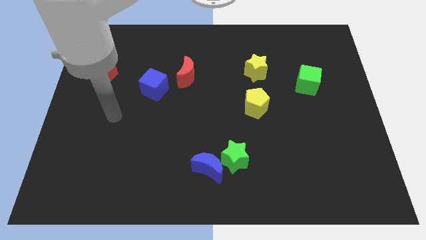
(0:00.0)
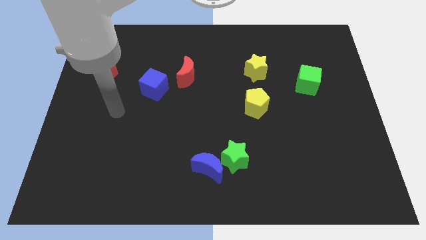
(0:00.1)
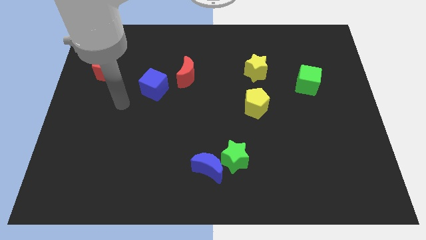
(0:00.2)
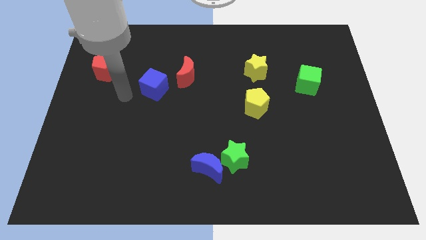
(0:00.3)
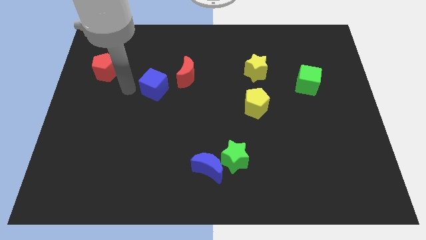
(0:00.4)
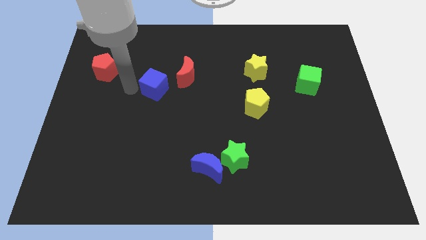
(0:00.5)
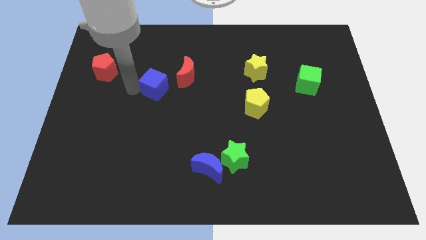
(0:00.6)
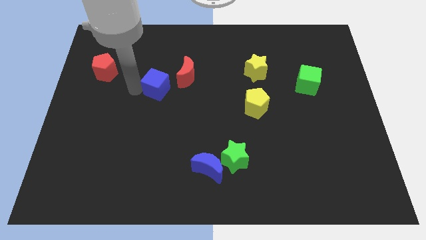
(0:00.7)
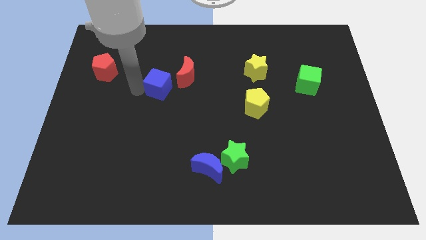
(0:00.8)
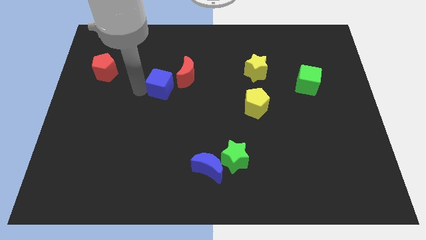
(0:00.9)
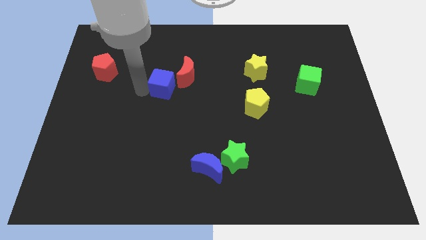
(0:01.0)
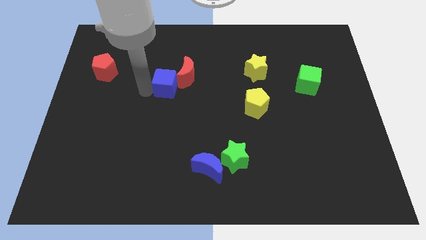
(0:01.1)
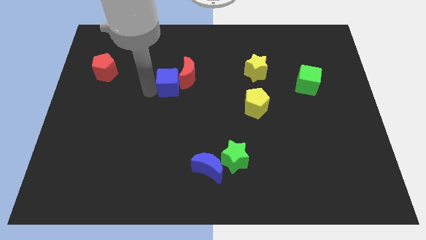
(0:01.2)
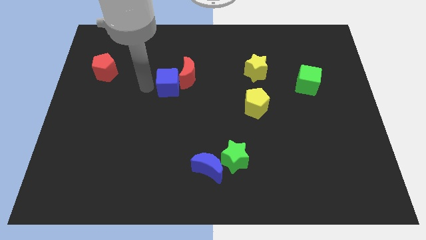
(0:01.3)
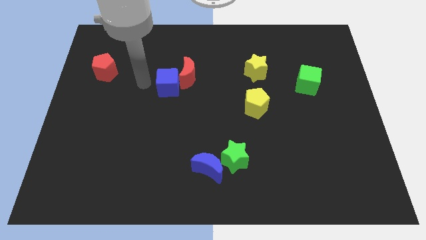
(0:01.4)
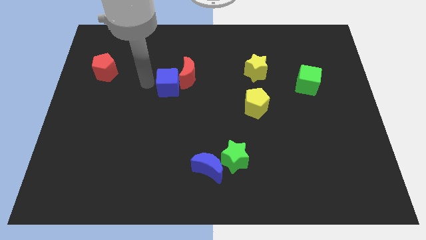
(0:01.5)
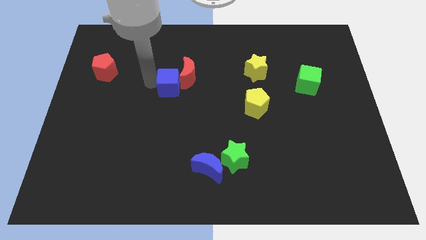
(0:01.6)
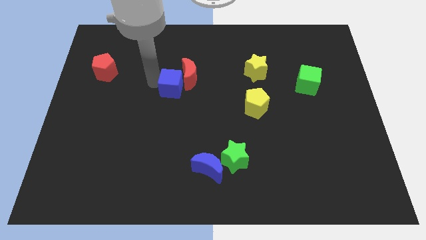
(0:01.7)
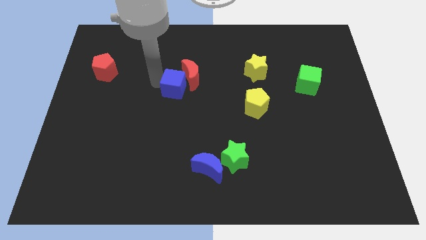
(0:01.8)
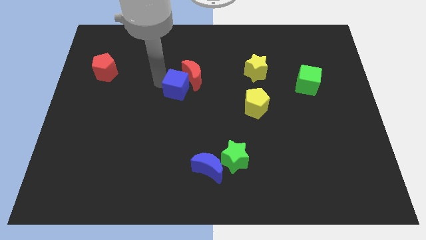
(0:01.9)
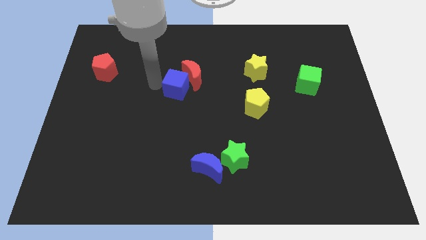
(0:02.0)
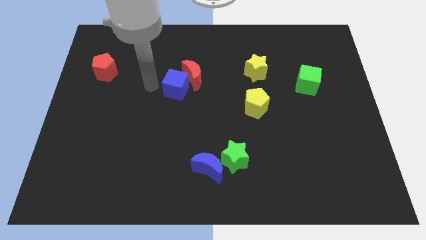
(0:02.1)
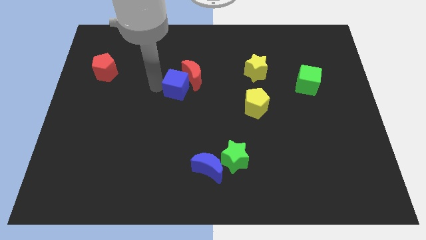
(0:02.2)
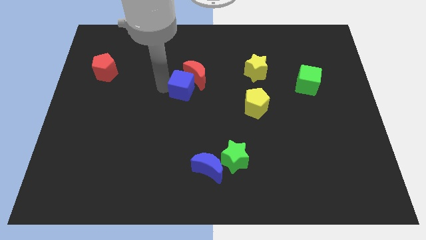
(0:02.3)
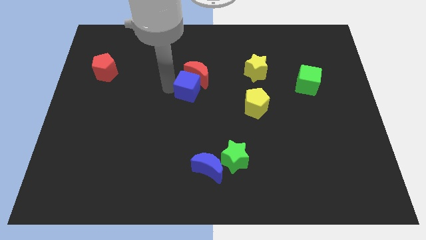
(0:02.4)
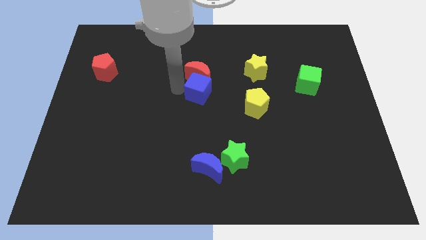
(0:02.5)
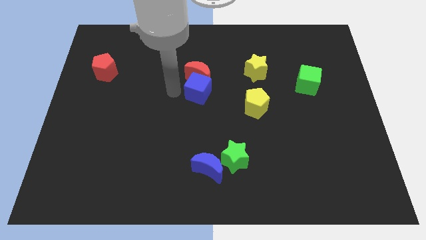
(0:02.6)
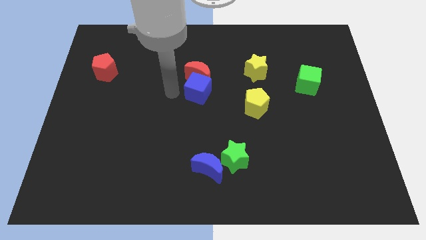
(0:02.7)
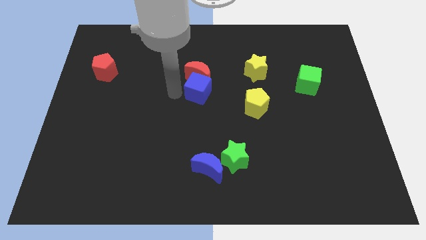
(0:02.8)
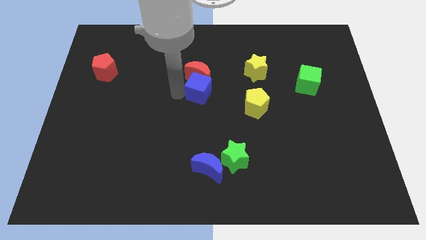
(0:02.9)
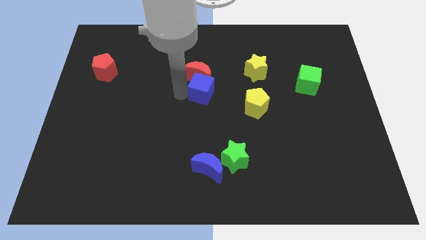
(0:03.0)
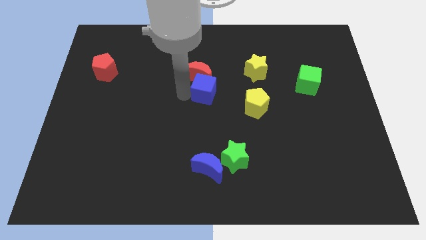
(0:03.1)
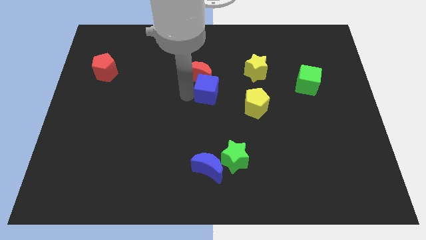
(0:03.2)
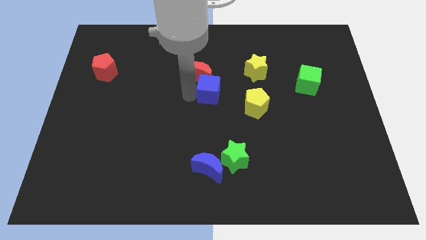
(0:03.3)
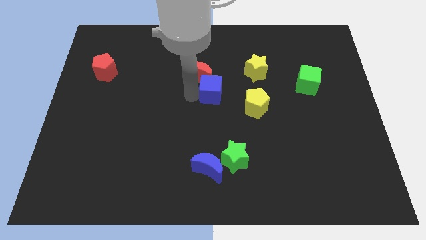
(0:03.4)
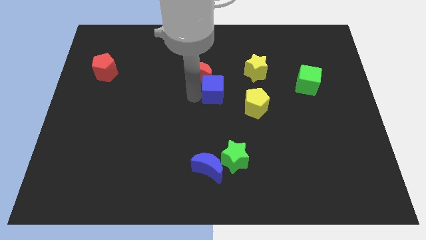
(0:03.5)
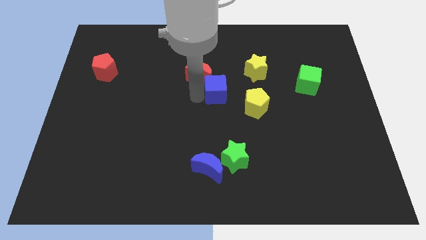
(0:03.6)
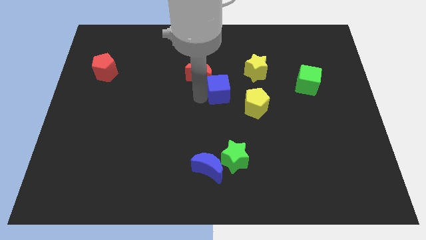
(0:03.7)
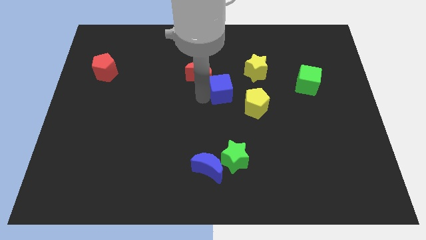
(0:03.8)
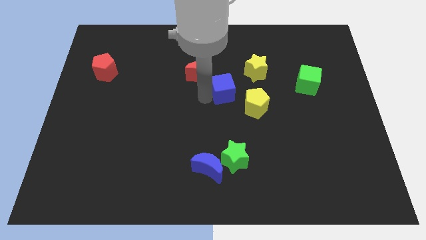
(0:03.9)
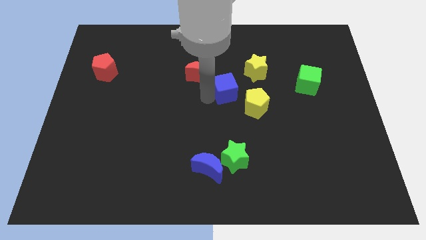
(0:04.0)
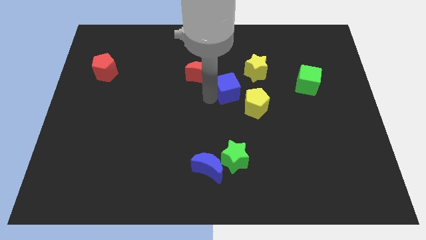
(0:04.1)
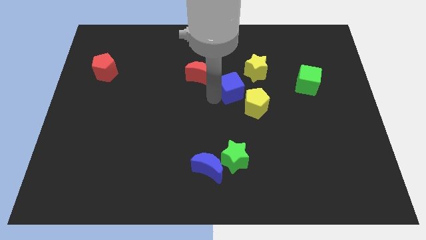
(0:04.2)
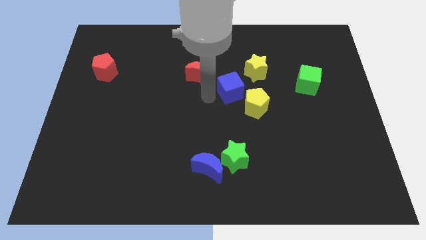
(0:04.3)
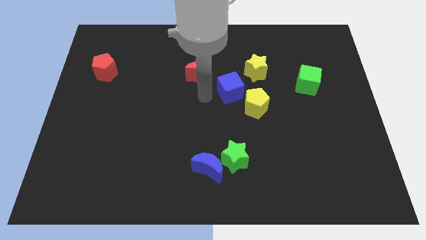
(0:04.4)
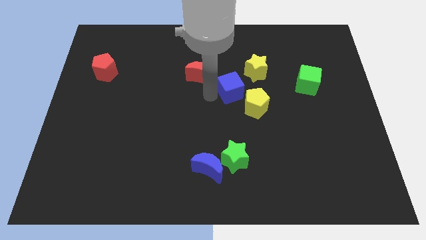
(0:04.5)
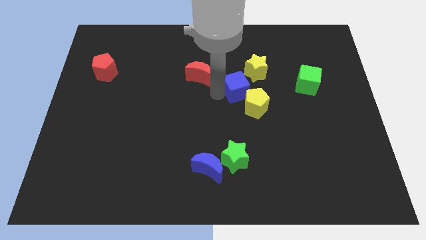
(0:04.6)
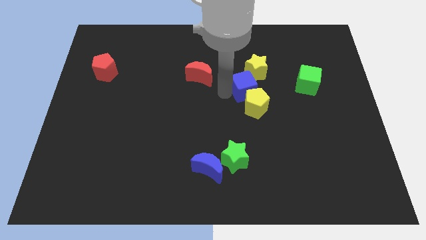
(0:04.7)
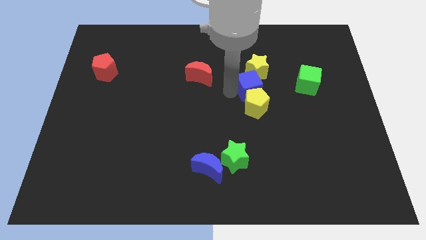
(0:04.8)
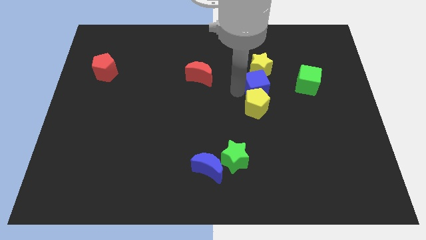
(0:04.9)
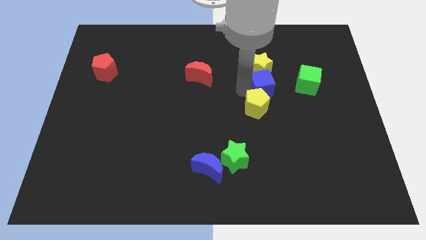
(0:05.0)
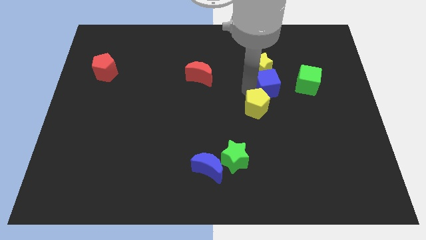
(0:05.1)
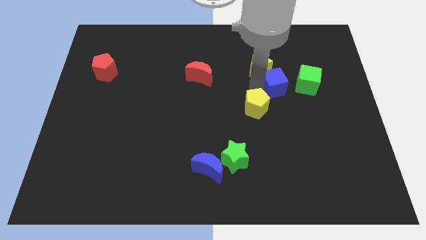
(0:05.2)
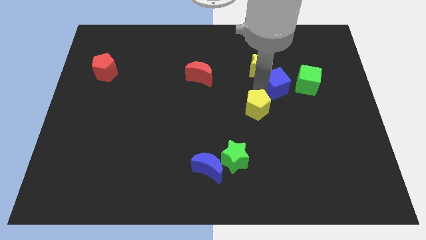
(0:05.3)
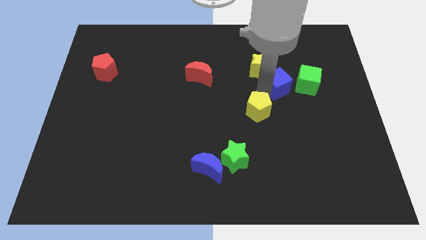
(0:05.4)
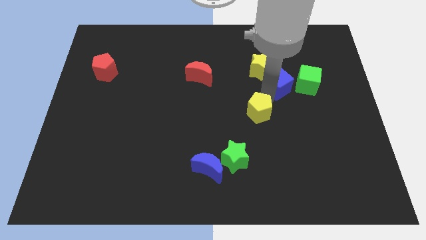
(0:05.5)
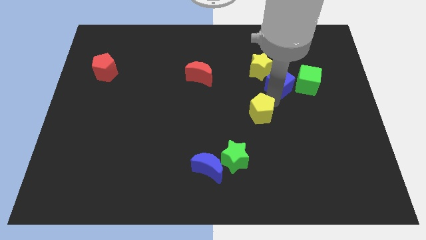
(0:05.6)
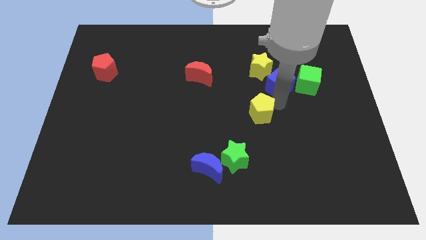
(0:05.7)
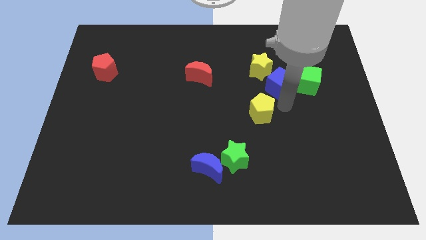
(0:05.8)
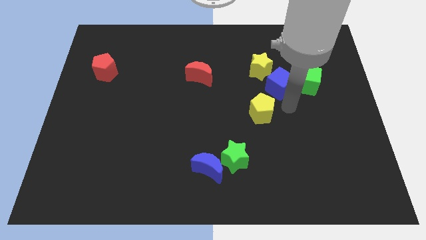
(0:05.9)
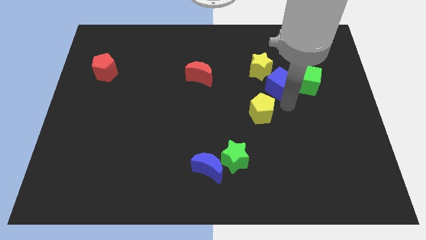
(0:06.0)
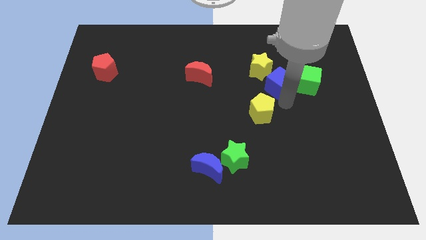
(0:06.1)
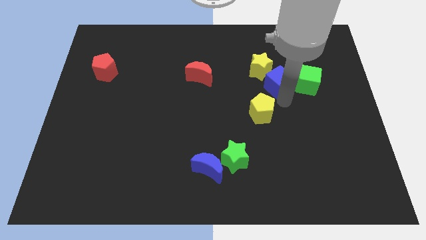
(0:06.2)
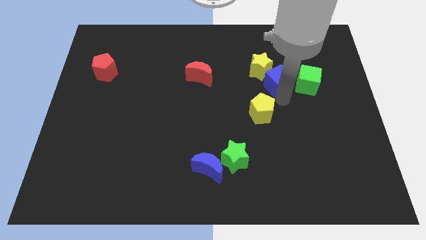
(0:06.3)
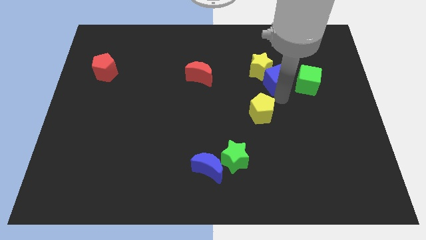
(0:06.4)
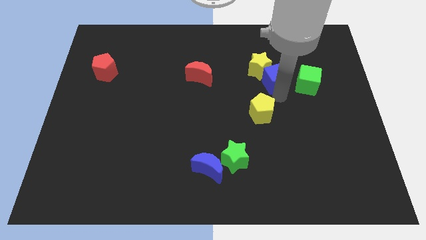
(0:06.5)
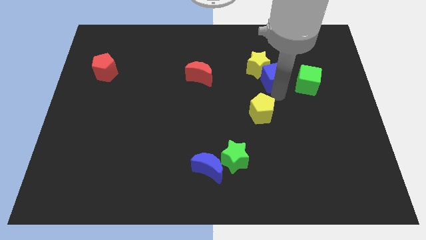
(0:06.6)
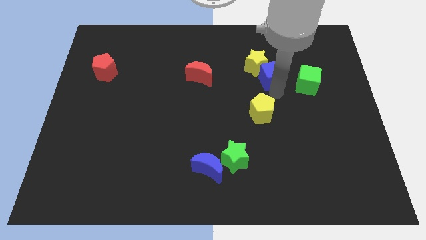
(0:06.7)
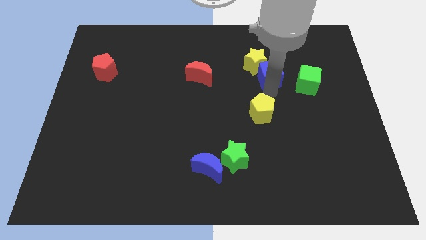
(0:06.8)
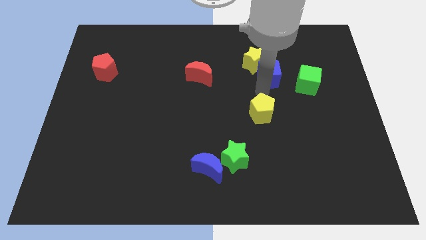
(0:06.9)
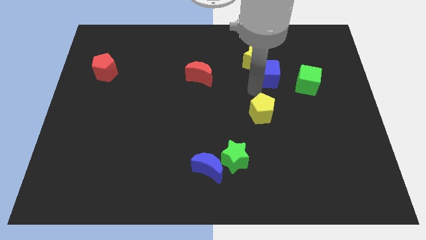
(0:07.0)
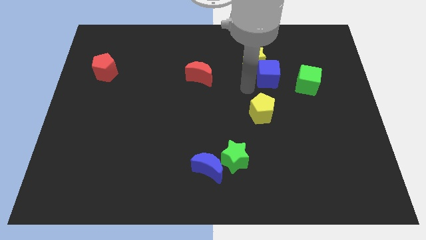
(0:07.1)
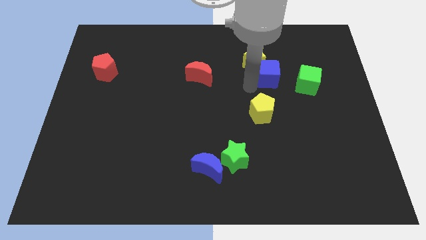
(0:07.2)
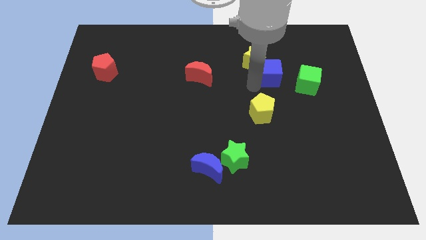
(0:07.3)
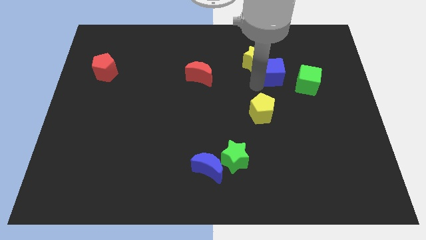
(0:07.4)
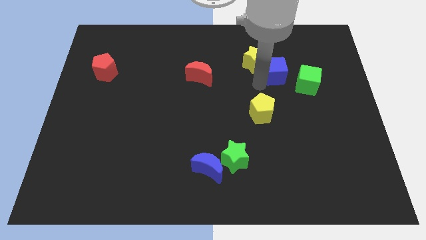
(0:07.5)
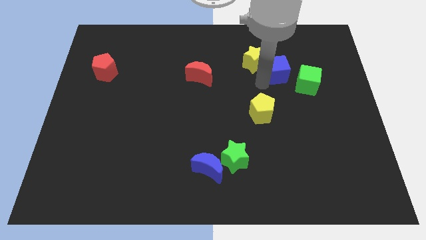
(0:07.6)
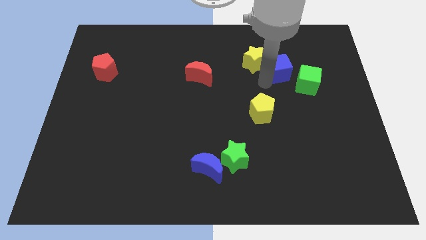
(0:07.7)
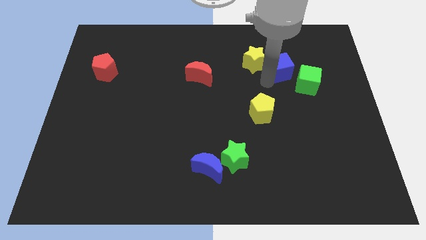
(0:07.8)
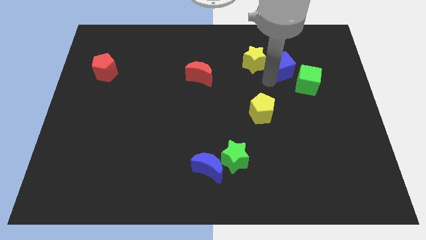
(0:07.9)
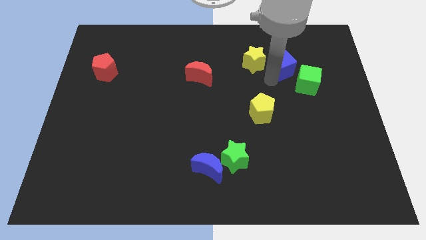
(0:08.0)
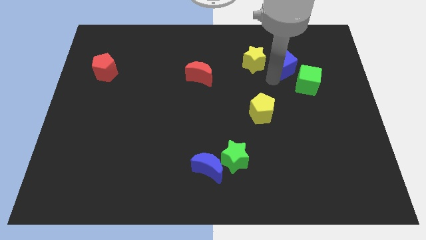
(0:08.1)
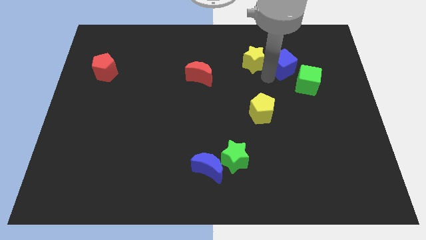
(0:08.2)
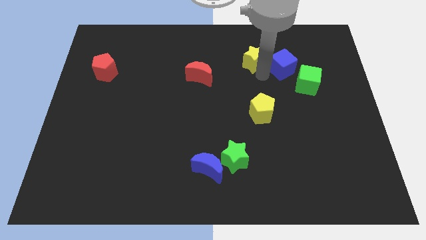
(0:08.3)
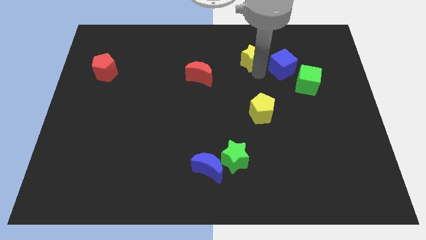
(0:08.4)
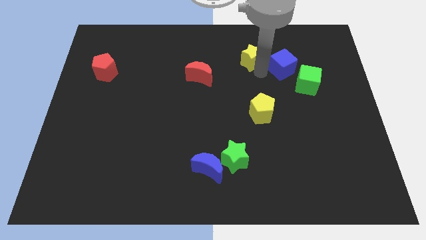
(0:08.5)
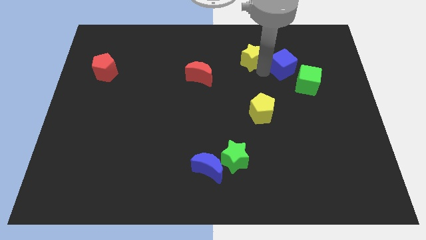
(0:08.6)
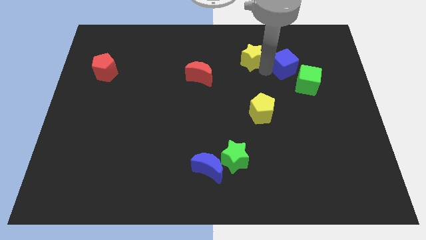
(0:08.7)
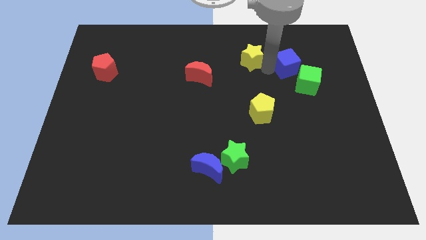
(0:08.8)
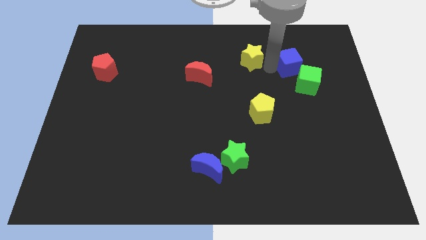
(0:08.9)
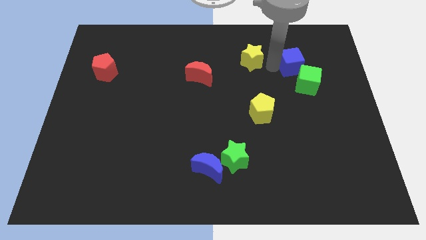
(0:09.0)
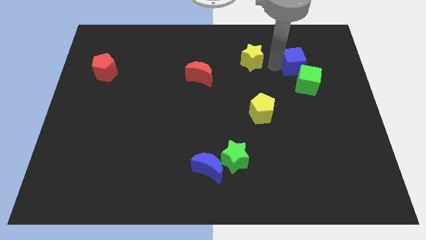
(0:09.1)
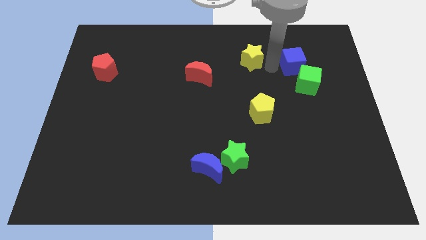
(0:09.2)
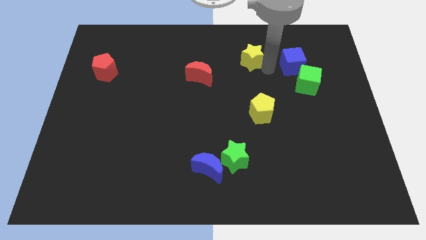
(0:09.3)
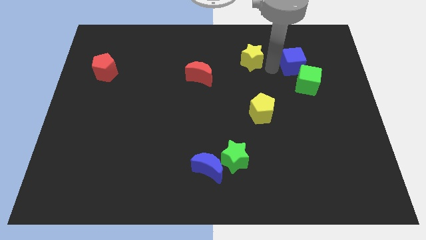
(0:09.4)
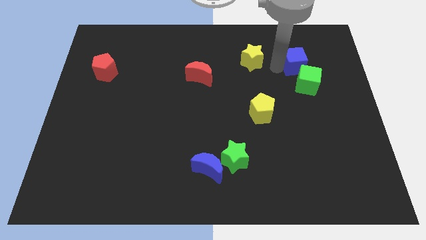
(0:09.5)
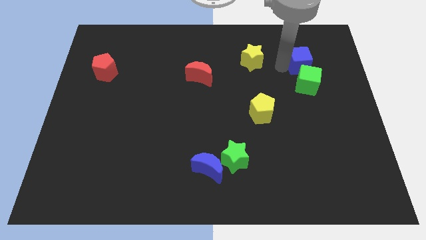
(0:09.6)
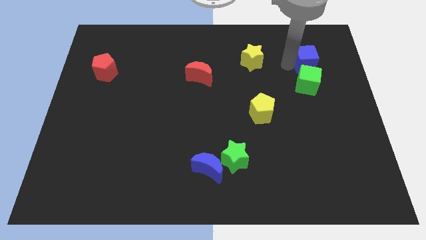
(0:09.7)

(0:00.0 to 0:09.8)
push the blue cube to the top right of the green cube
